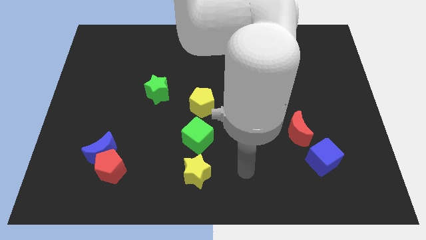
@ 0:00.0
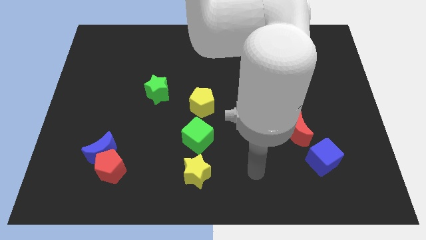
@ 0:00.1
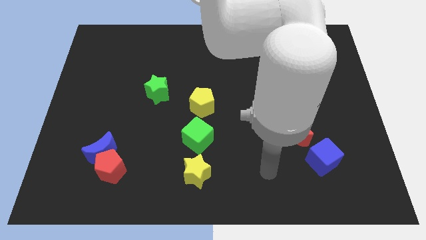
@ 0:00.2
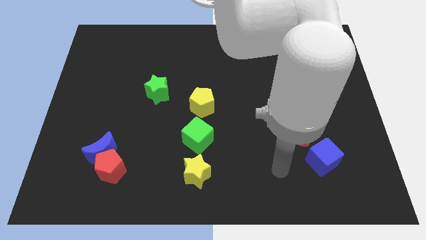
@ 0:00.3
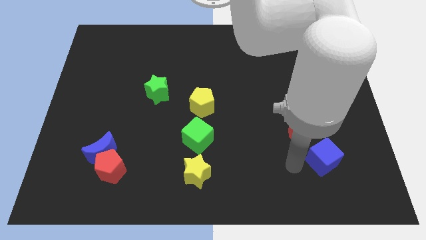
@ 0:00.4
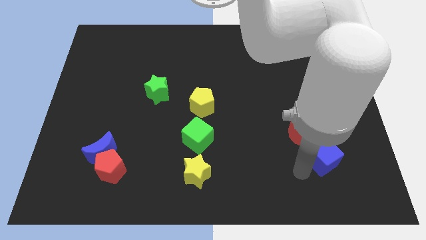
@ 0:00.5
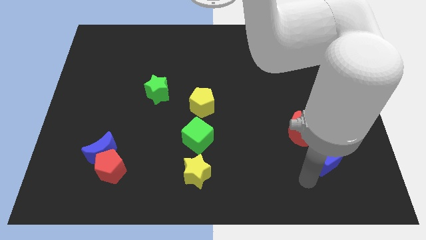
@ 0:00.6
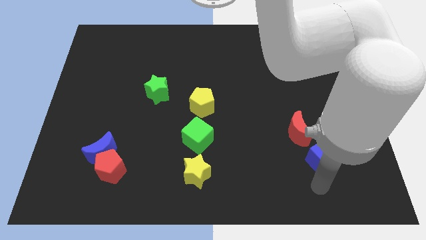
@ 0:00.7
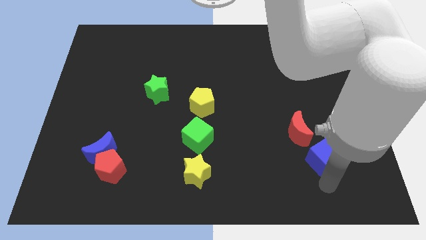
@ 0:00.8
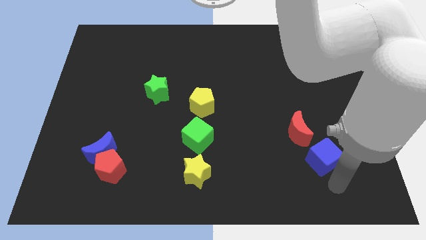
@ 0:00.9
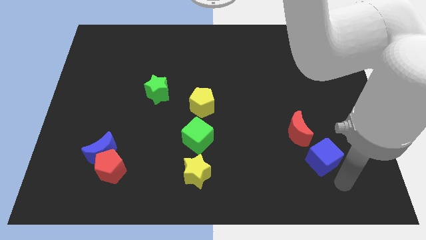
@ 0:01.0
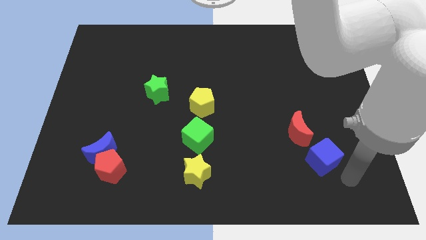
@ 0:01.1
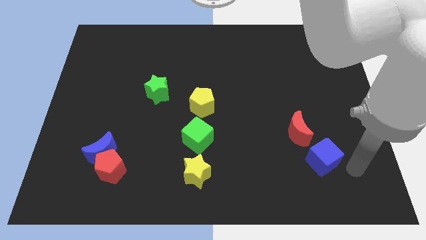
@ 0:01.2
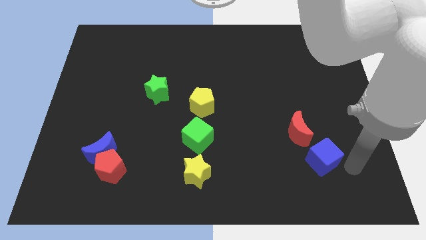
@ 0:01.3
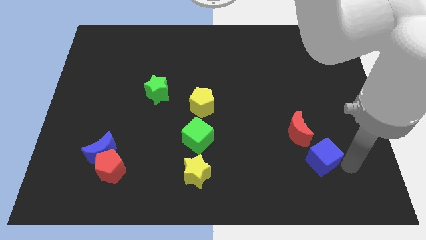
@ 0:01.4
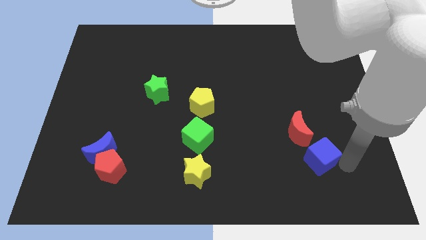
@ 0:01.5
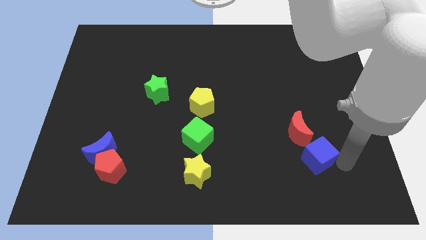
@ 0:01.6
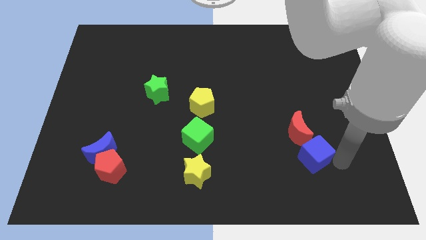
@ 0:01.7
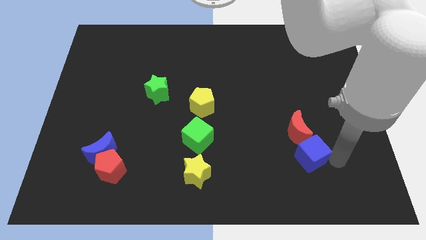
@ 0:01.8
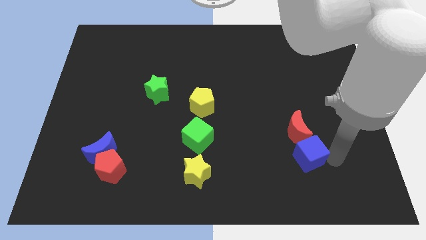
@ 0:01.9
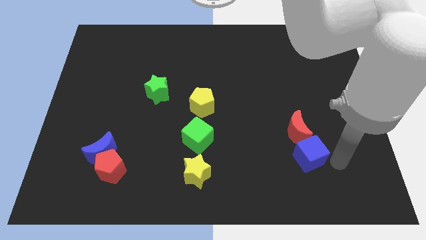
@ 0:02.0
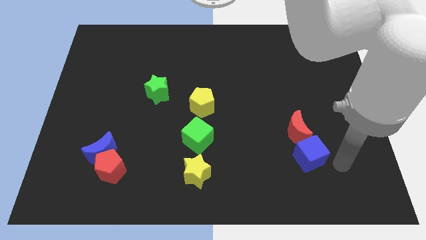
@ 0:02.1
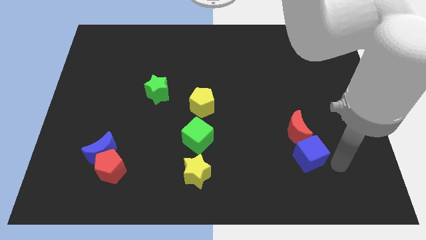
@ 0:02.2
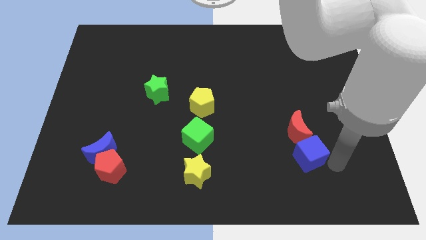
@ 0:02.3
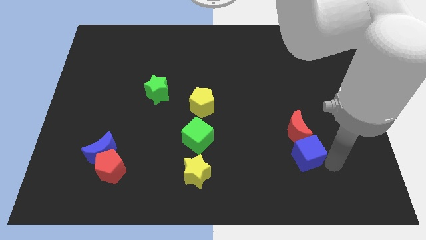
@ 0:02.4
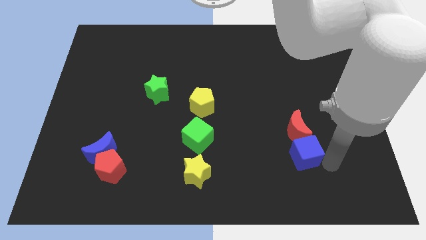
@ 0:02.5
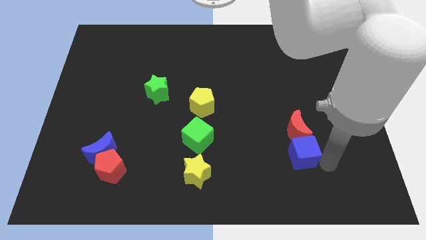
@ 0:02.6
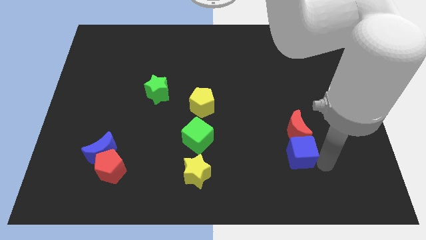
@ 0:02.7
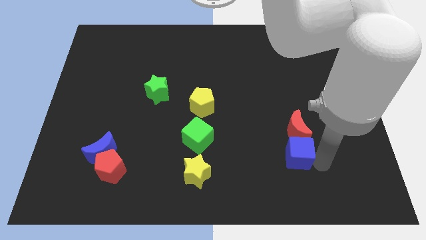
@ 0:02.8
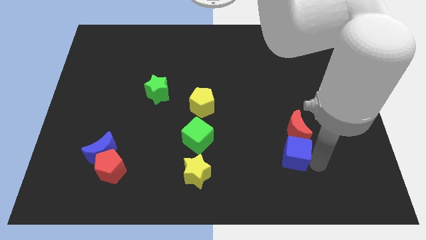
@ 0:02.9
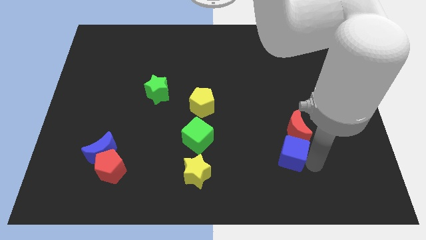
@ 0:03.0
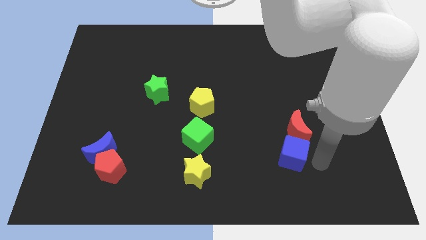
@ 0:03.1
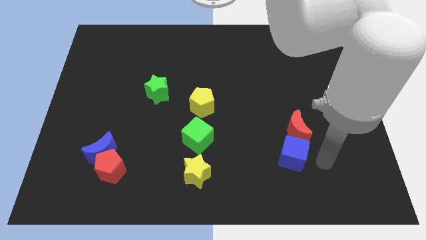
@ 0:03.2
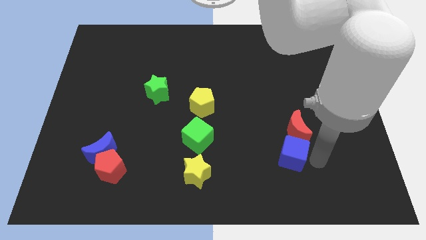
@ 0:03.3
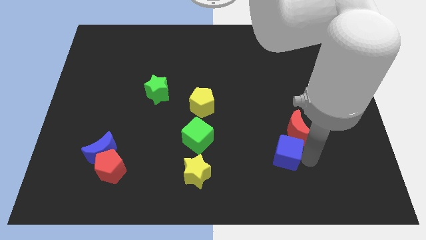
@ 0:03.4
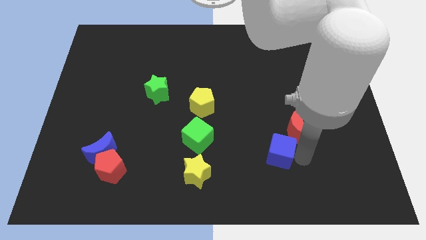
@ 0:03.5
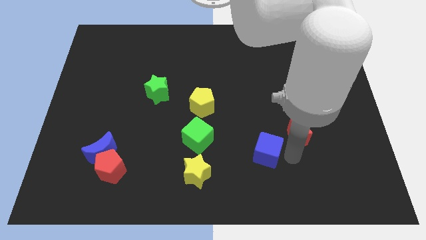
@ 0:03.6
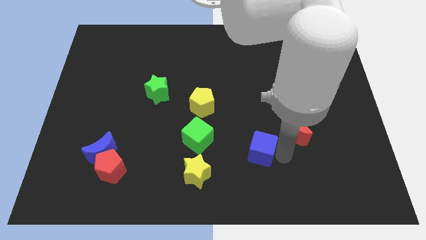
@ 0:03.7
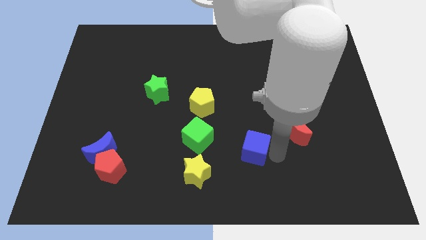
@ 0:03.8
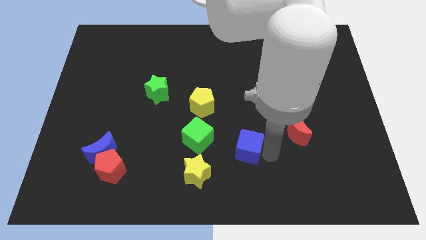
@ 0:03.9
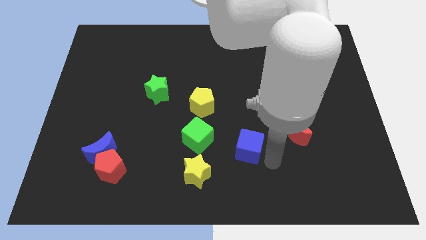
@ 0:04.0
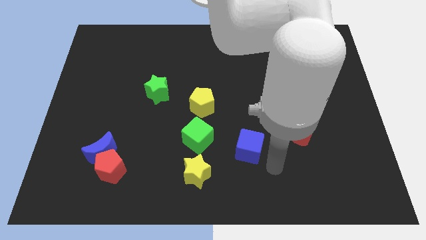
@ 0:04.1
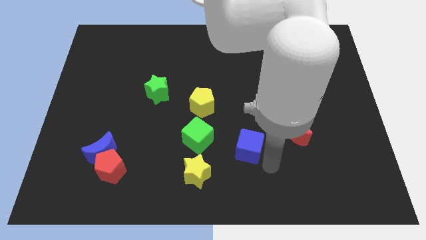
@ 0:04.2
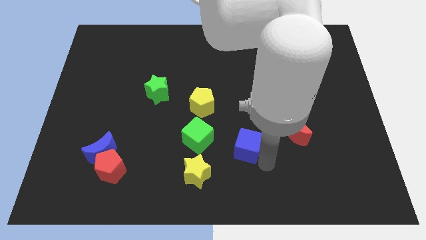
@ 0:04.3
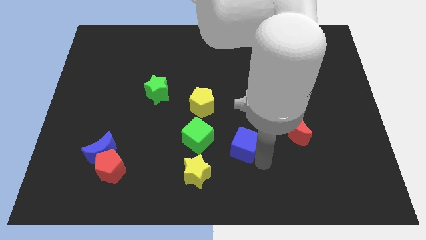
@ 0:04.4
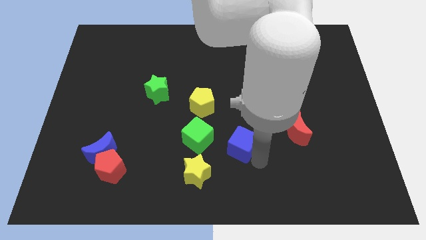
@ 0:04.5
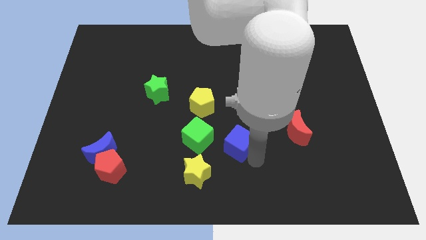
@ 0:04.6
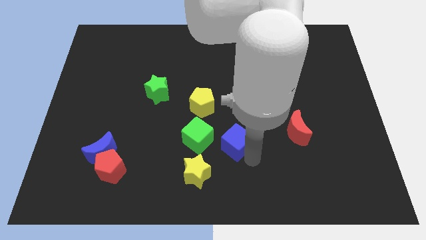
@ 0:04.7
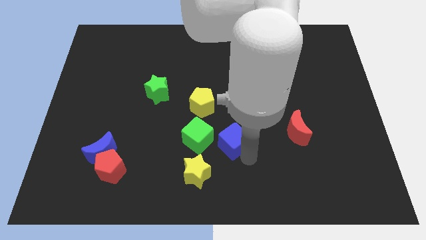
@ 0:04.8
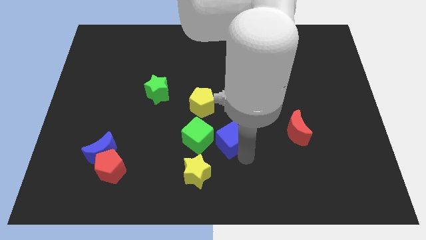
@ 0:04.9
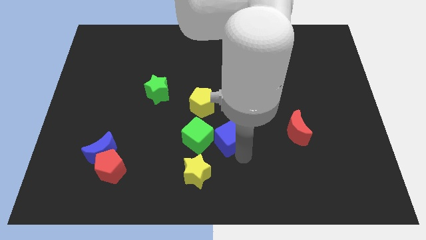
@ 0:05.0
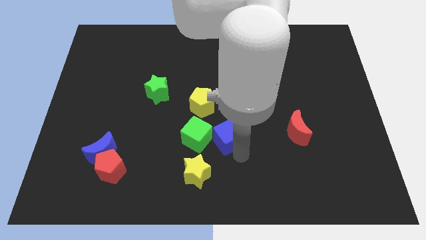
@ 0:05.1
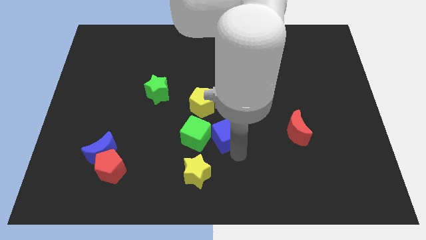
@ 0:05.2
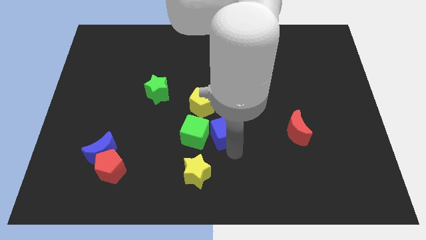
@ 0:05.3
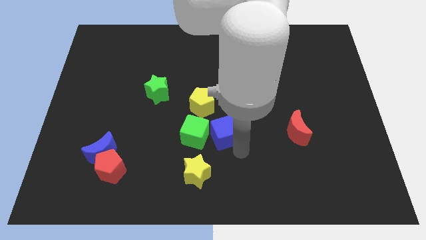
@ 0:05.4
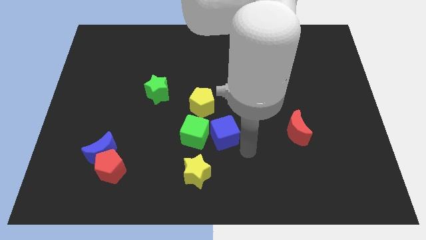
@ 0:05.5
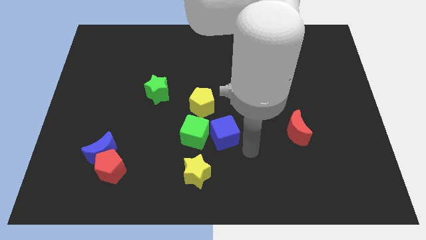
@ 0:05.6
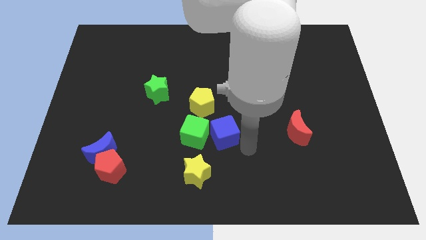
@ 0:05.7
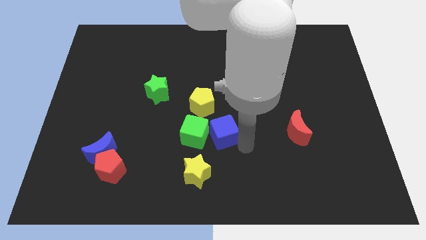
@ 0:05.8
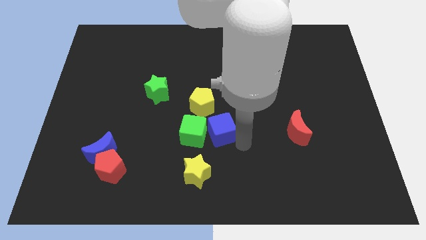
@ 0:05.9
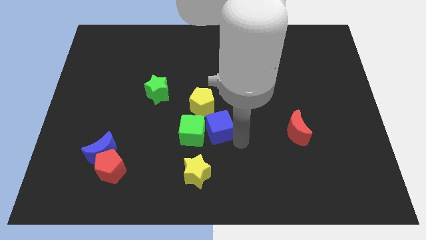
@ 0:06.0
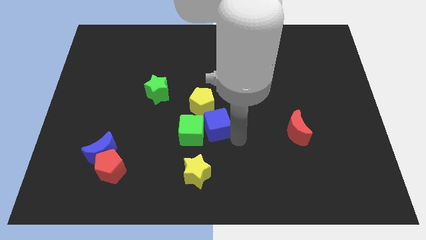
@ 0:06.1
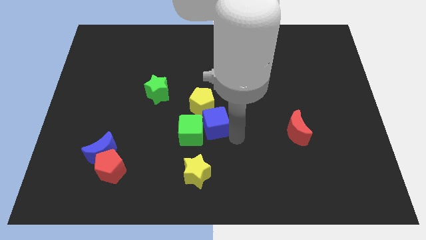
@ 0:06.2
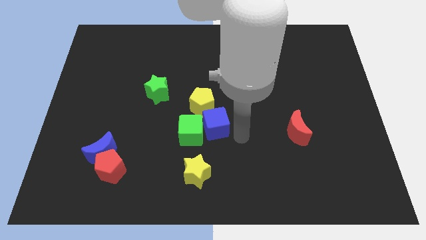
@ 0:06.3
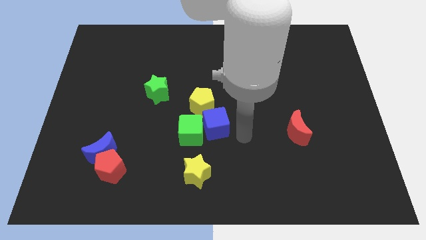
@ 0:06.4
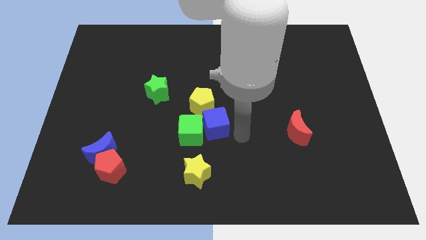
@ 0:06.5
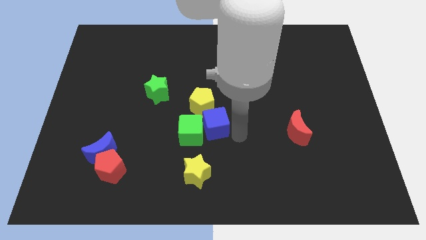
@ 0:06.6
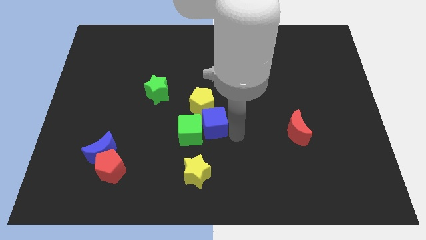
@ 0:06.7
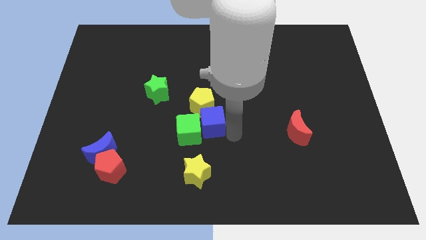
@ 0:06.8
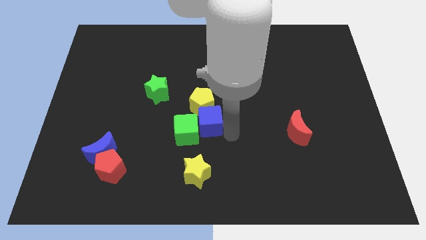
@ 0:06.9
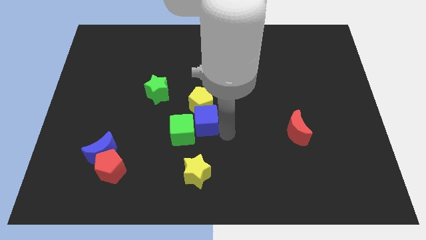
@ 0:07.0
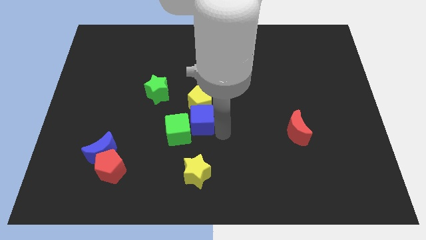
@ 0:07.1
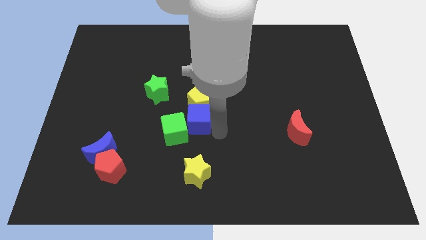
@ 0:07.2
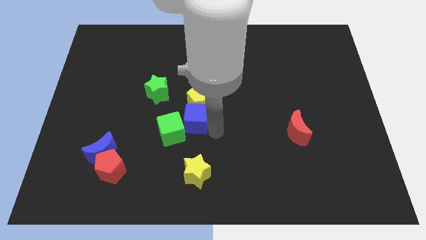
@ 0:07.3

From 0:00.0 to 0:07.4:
slide the blue cube to the bottom right side of the green star

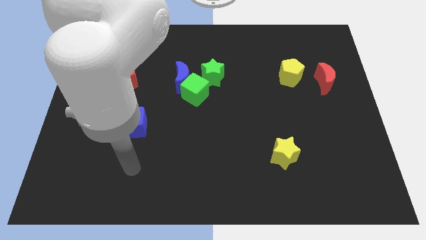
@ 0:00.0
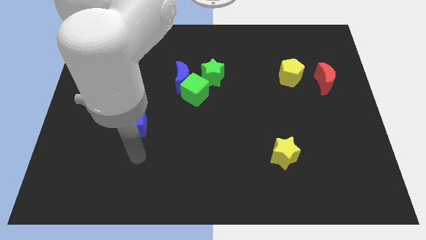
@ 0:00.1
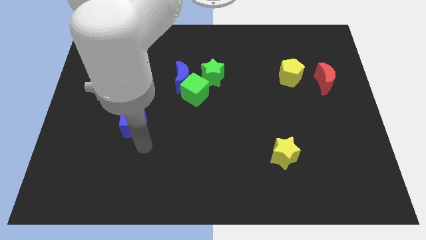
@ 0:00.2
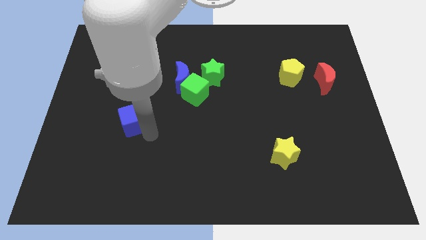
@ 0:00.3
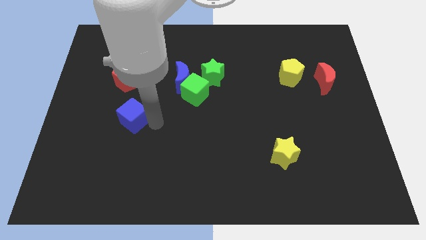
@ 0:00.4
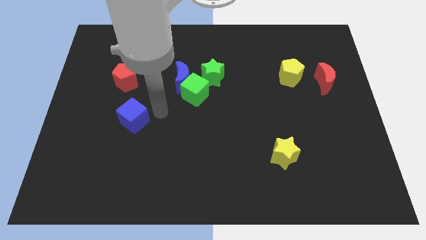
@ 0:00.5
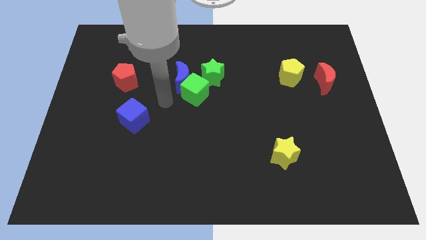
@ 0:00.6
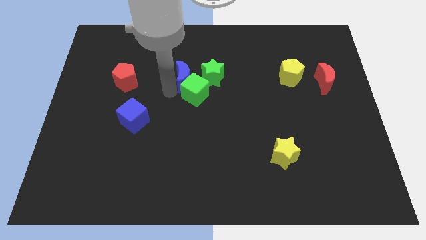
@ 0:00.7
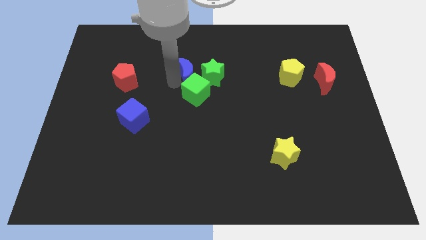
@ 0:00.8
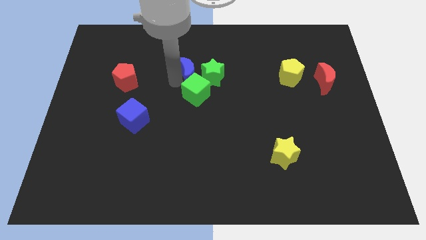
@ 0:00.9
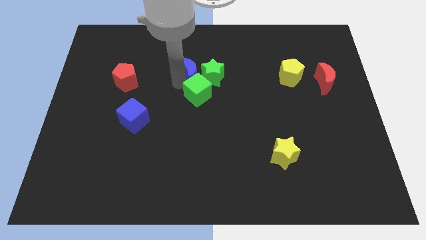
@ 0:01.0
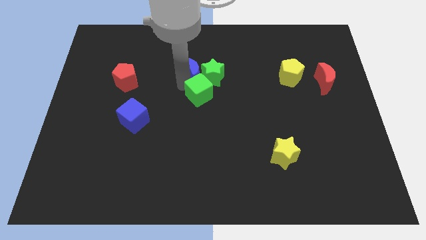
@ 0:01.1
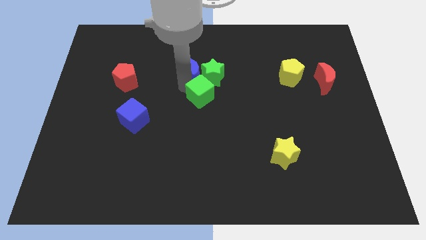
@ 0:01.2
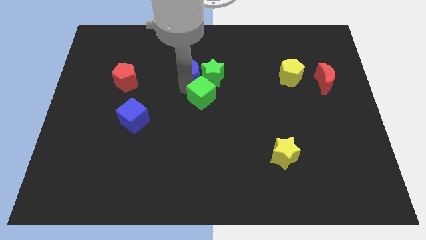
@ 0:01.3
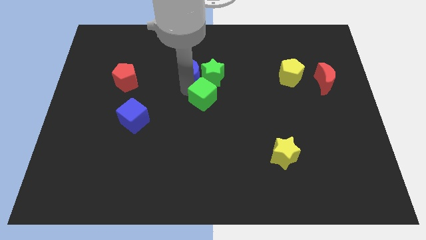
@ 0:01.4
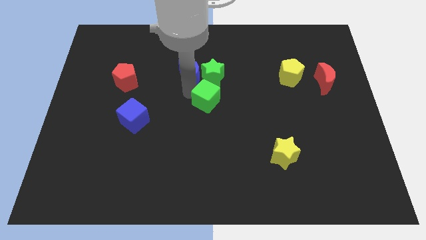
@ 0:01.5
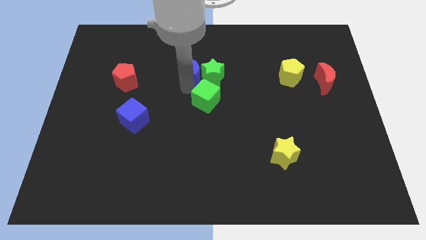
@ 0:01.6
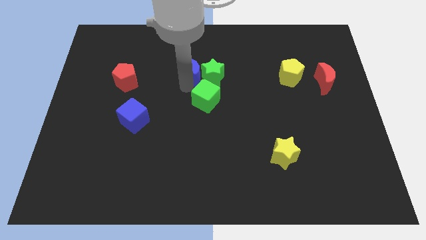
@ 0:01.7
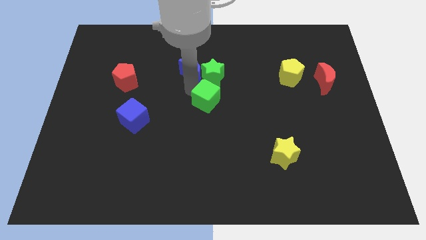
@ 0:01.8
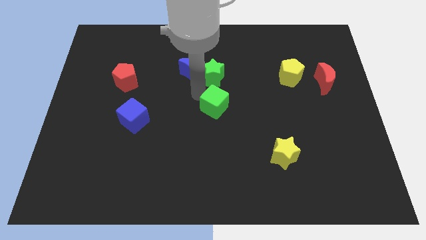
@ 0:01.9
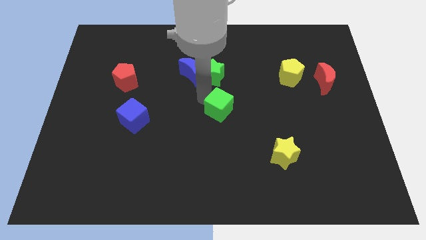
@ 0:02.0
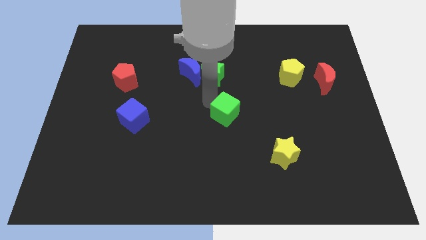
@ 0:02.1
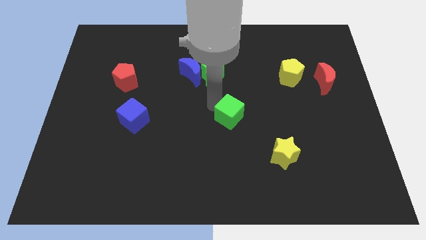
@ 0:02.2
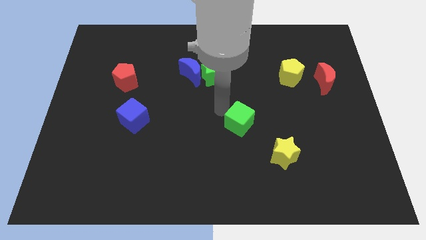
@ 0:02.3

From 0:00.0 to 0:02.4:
put the green cube to the top left side of the yellow star
